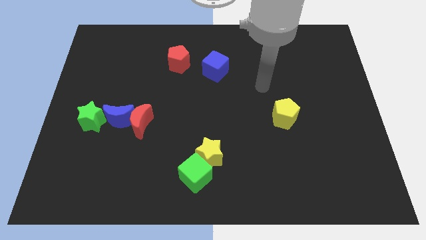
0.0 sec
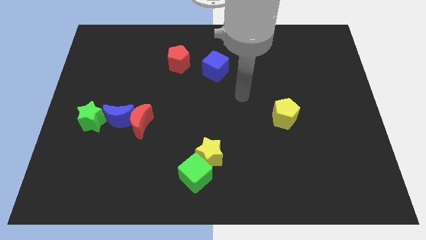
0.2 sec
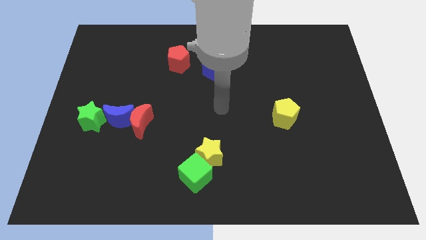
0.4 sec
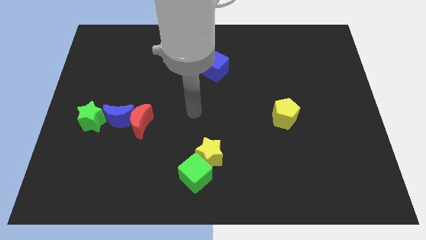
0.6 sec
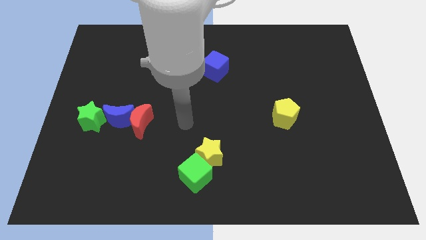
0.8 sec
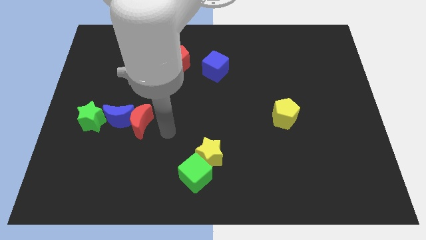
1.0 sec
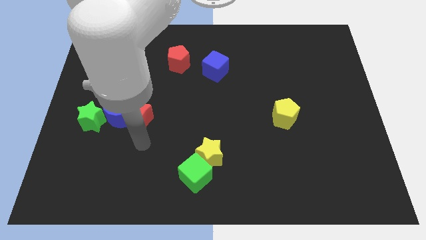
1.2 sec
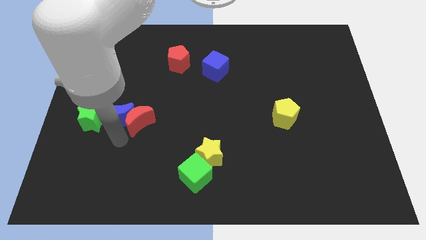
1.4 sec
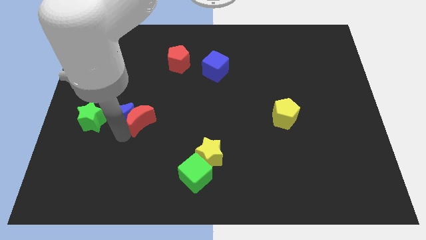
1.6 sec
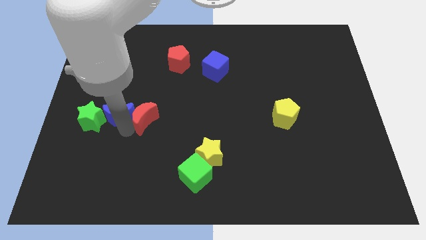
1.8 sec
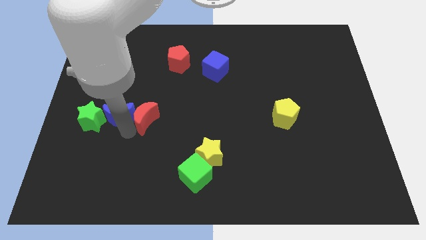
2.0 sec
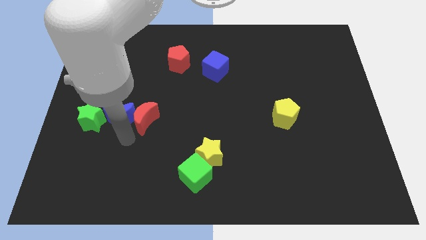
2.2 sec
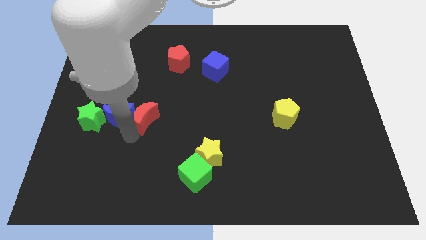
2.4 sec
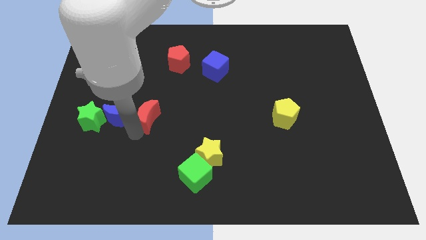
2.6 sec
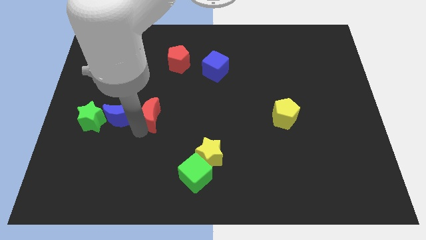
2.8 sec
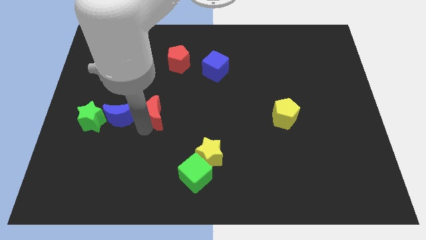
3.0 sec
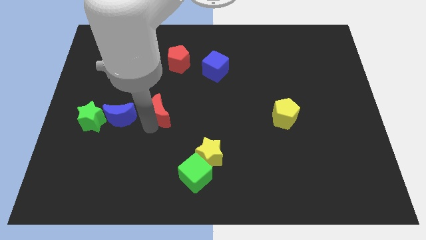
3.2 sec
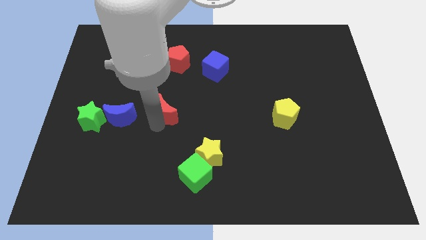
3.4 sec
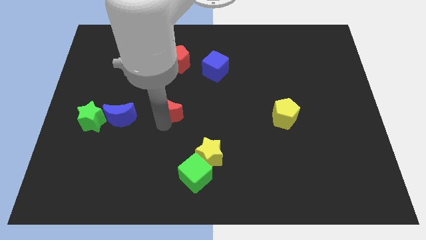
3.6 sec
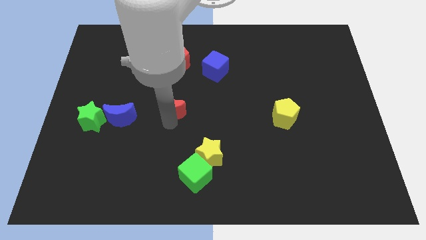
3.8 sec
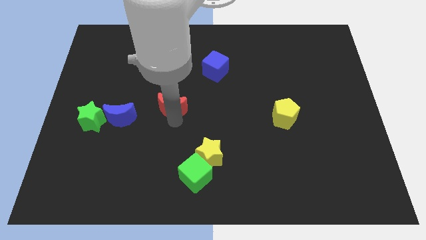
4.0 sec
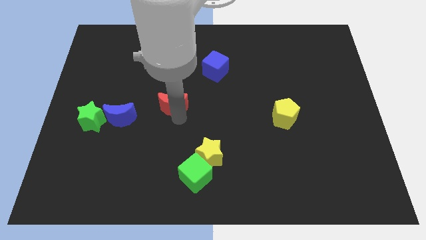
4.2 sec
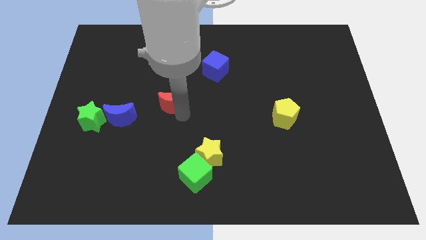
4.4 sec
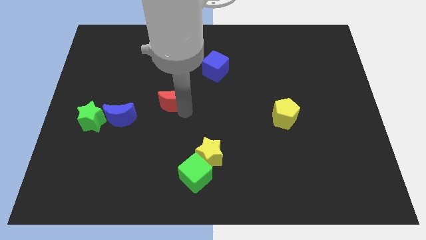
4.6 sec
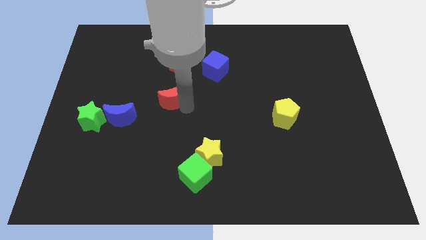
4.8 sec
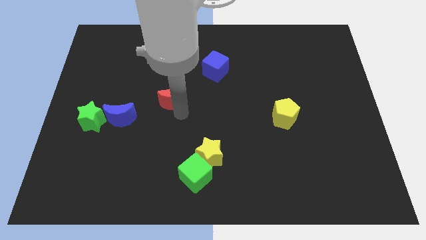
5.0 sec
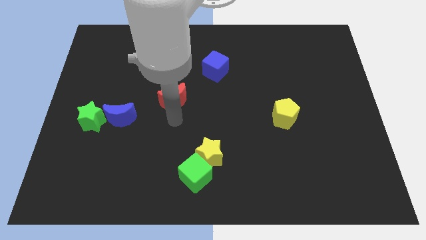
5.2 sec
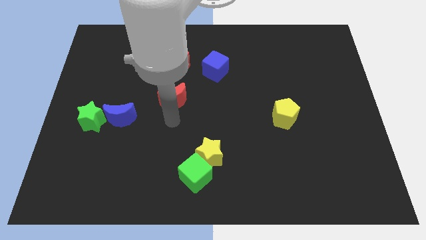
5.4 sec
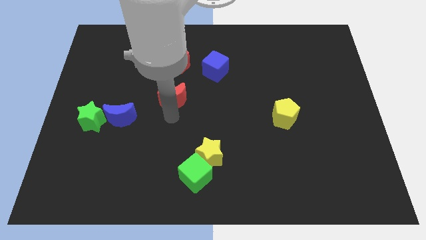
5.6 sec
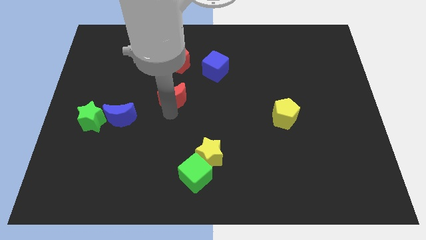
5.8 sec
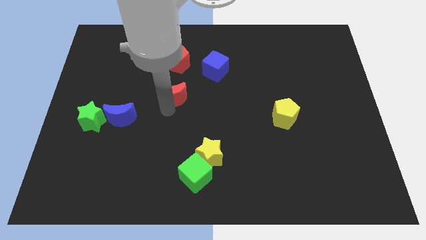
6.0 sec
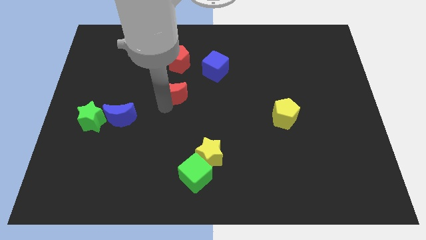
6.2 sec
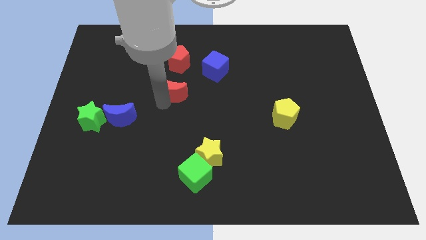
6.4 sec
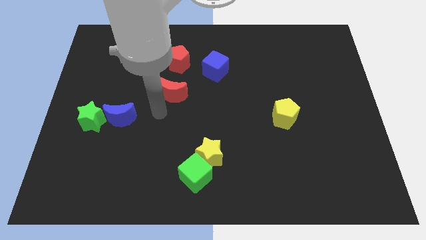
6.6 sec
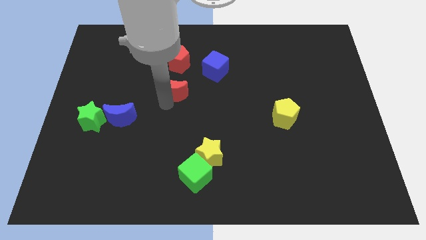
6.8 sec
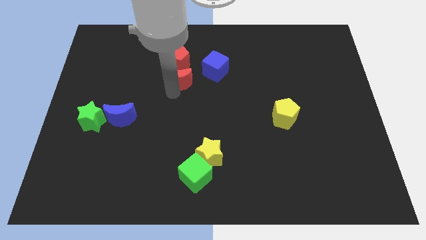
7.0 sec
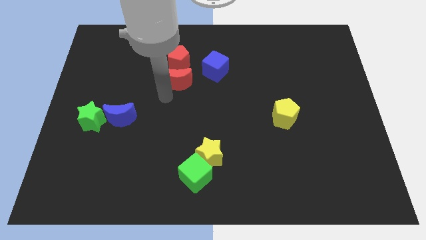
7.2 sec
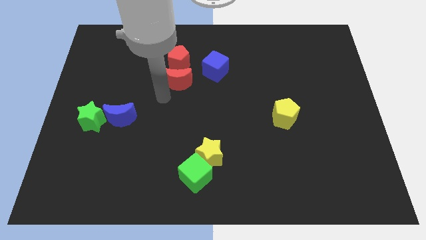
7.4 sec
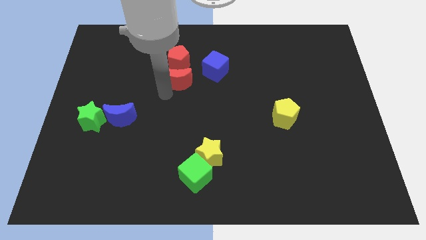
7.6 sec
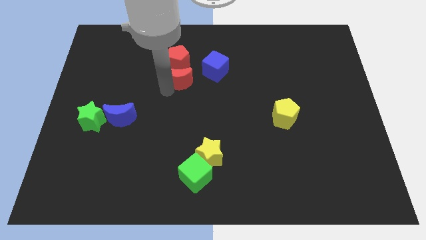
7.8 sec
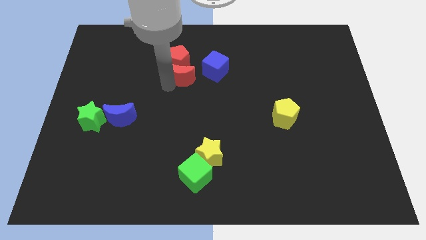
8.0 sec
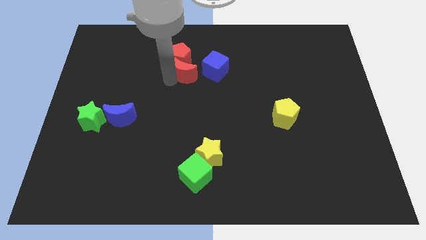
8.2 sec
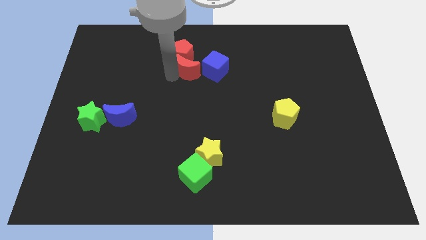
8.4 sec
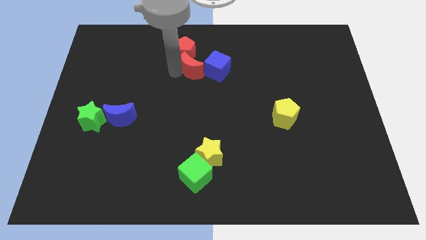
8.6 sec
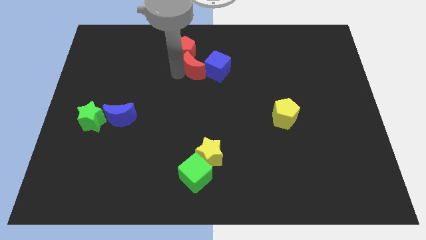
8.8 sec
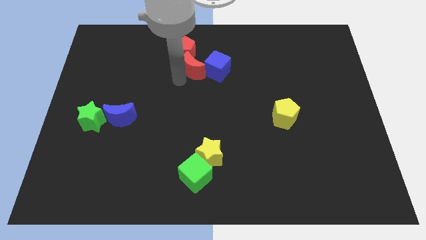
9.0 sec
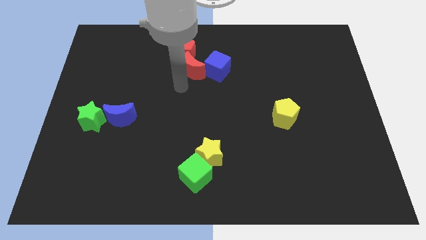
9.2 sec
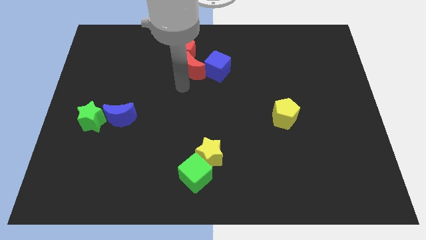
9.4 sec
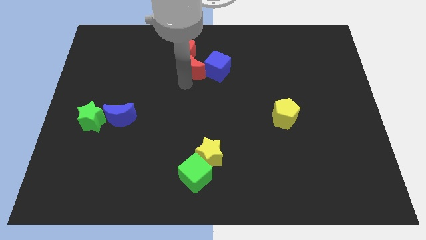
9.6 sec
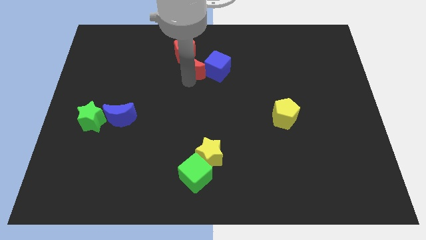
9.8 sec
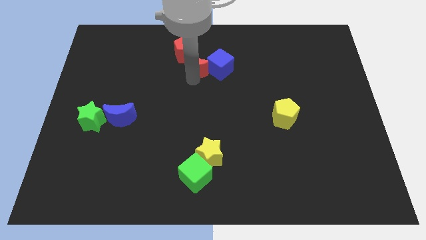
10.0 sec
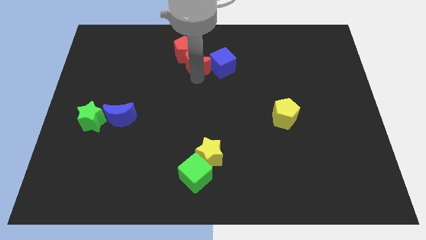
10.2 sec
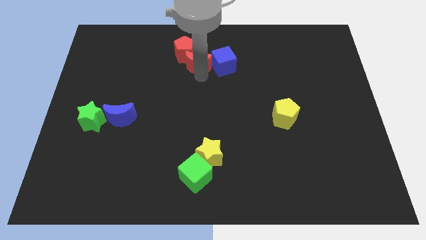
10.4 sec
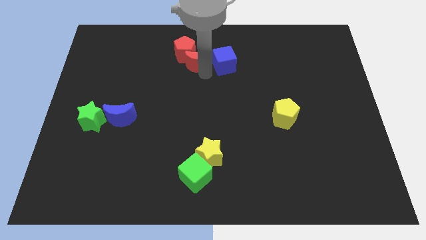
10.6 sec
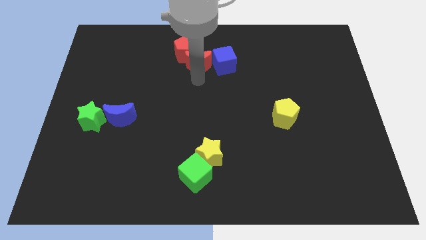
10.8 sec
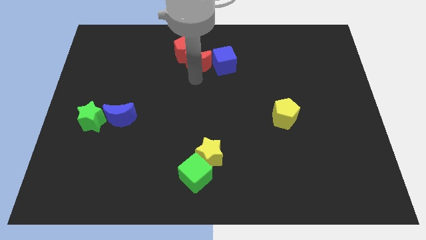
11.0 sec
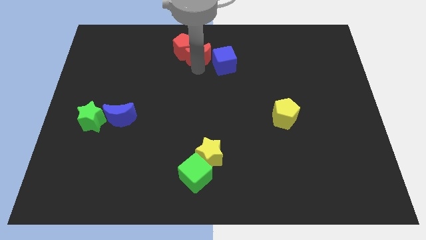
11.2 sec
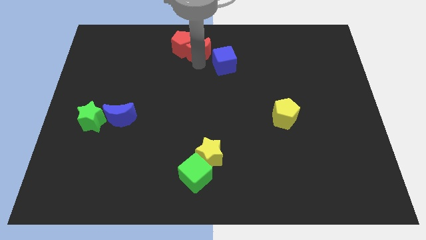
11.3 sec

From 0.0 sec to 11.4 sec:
slide the red moon to the top side
